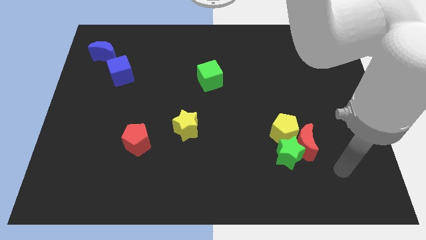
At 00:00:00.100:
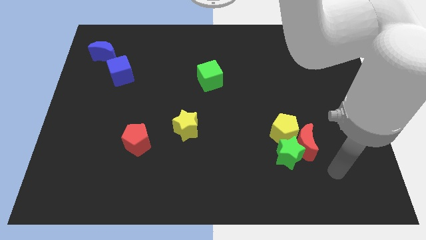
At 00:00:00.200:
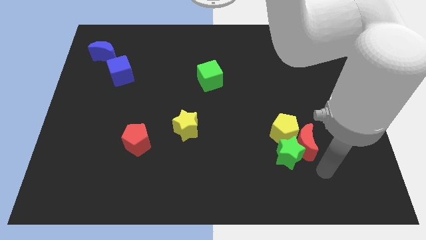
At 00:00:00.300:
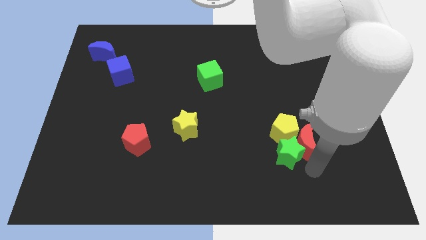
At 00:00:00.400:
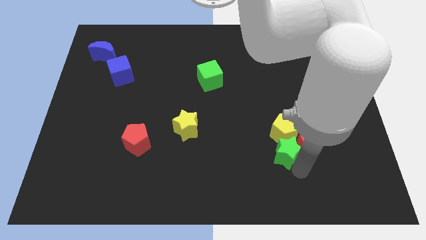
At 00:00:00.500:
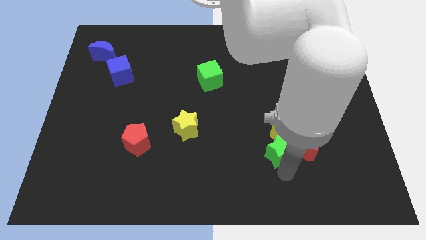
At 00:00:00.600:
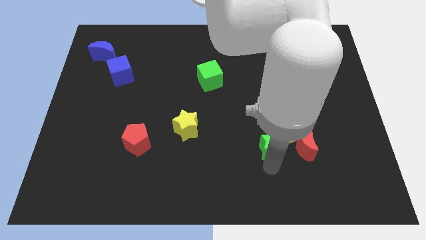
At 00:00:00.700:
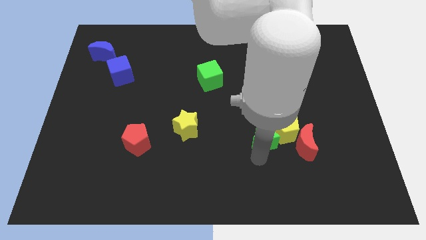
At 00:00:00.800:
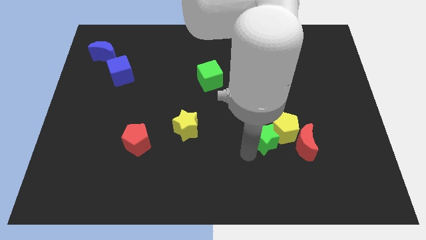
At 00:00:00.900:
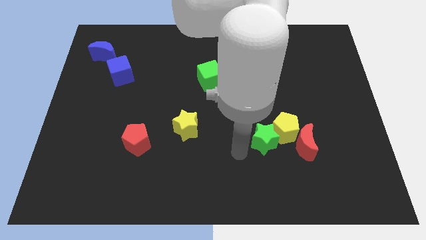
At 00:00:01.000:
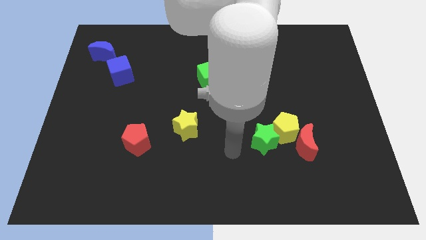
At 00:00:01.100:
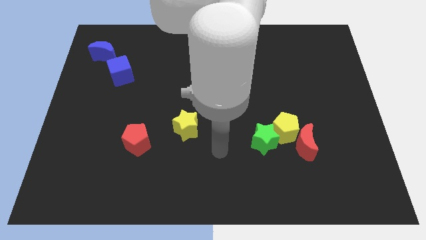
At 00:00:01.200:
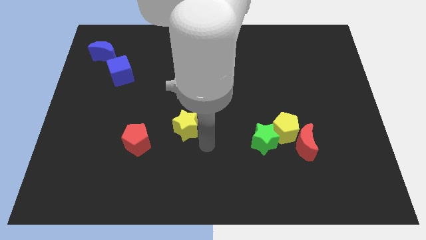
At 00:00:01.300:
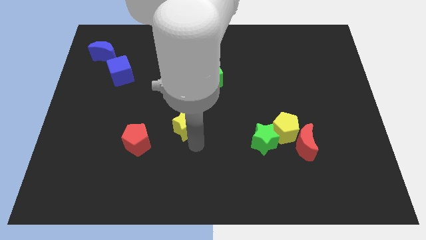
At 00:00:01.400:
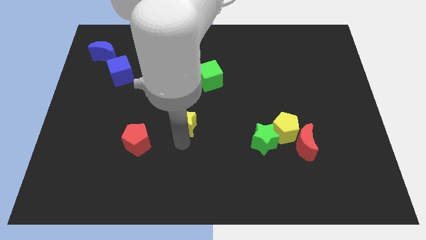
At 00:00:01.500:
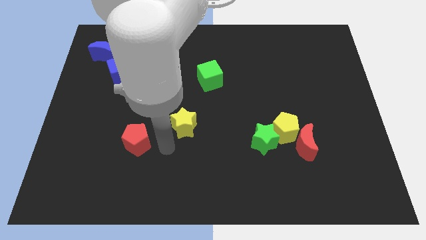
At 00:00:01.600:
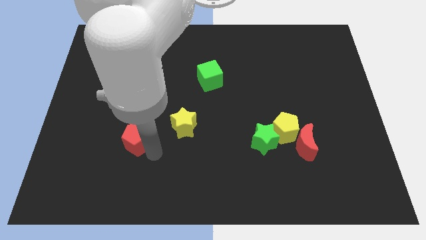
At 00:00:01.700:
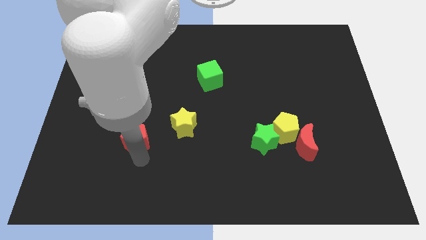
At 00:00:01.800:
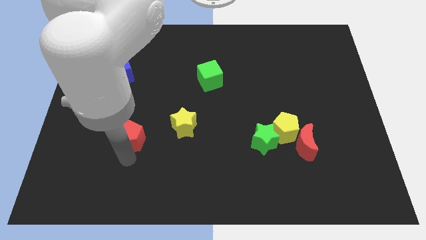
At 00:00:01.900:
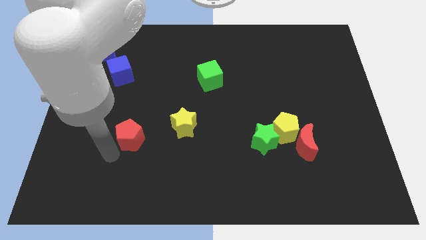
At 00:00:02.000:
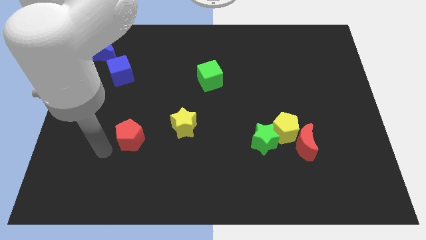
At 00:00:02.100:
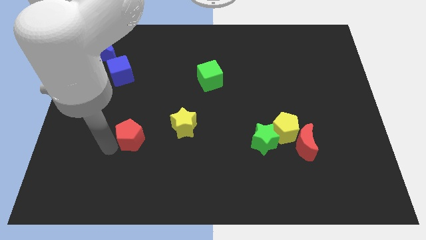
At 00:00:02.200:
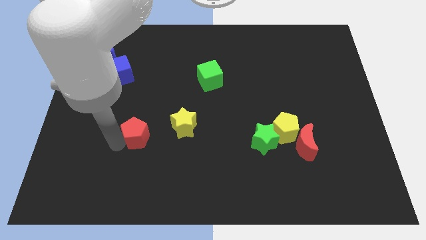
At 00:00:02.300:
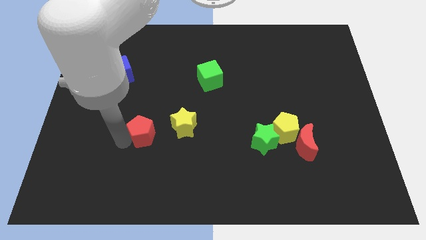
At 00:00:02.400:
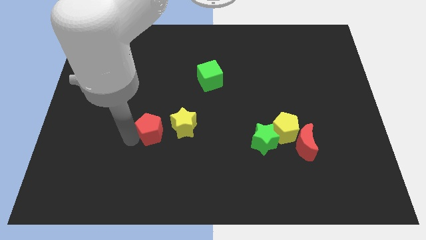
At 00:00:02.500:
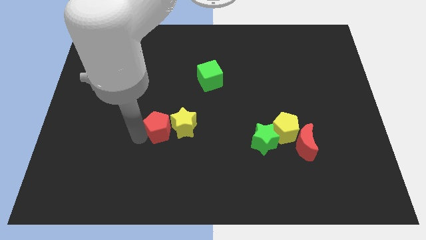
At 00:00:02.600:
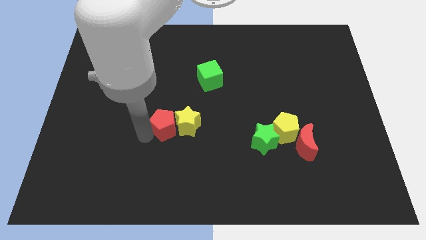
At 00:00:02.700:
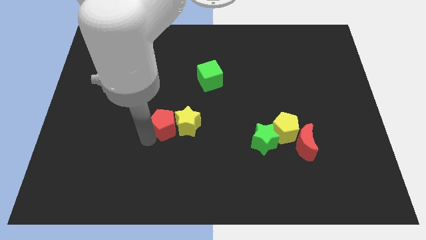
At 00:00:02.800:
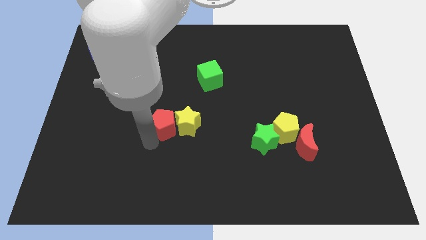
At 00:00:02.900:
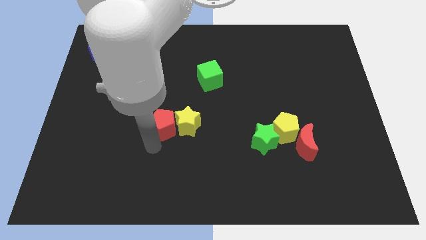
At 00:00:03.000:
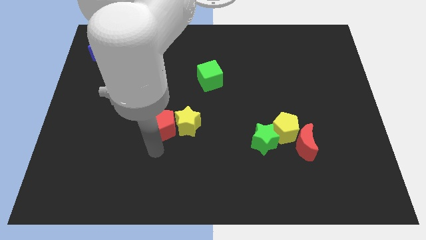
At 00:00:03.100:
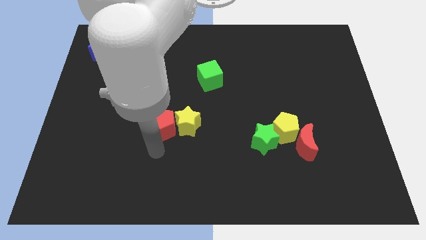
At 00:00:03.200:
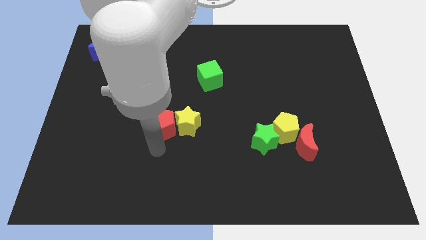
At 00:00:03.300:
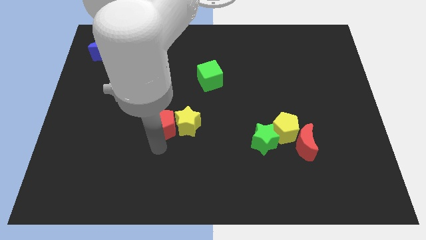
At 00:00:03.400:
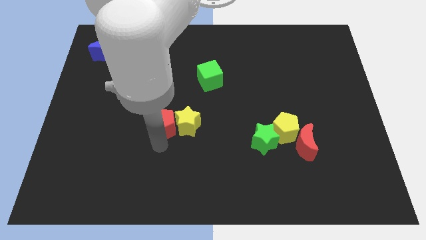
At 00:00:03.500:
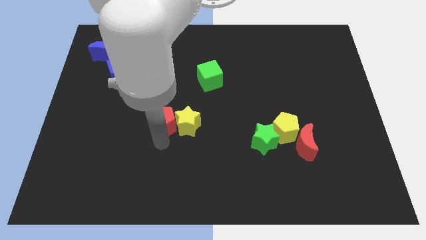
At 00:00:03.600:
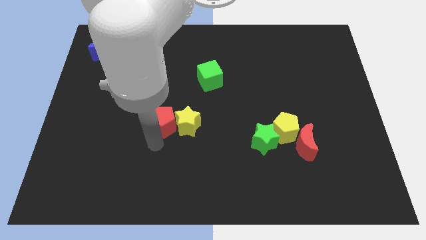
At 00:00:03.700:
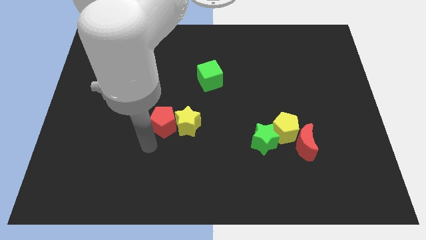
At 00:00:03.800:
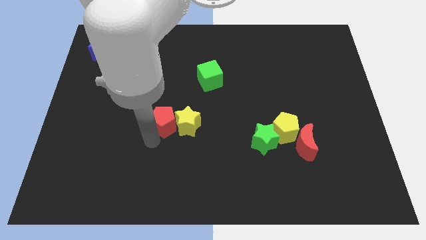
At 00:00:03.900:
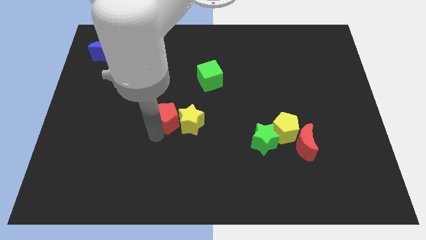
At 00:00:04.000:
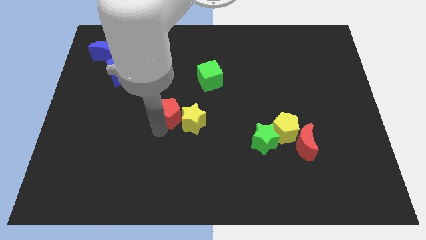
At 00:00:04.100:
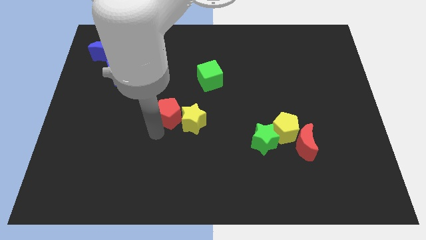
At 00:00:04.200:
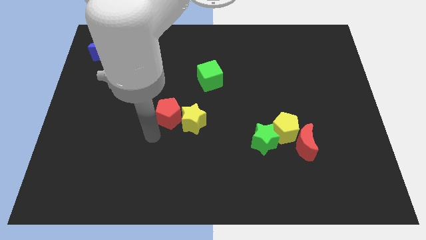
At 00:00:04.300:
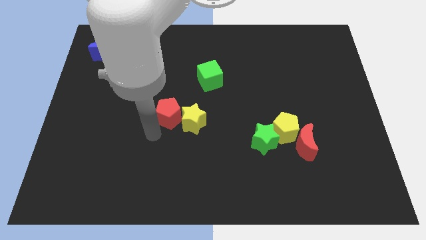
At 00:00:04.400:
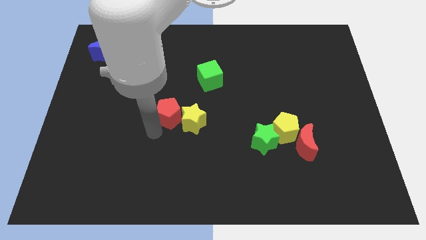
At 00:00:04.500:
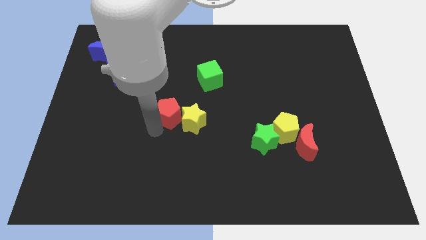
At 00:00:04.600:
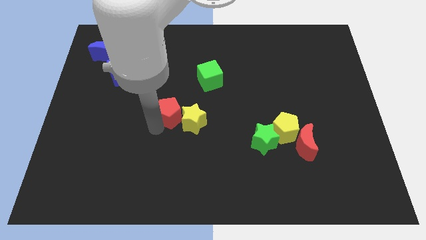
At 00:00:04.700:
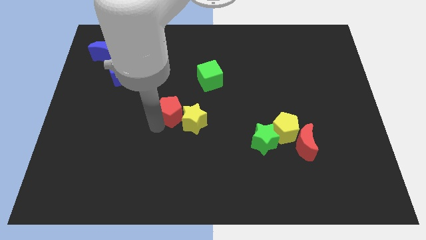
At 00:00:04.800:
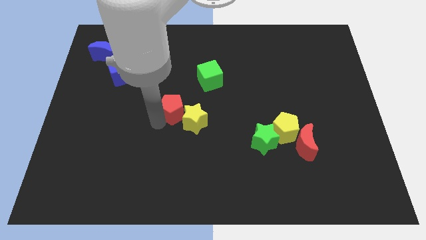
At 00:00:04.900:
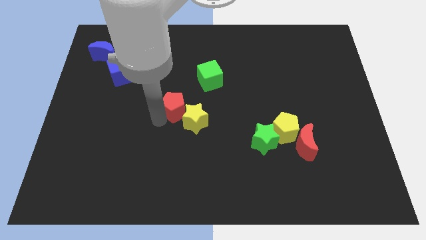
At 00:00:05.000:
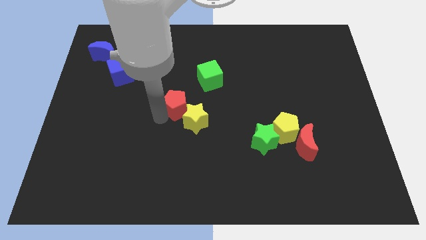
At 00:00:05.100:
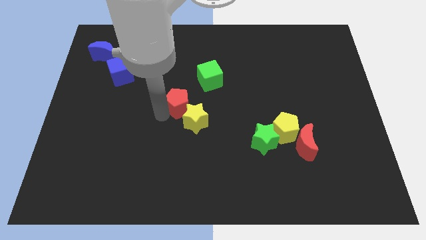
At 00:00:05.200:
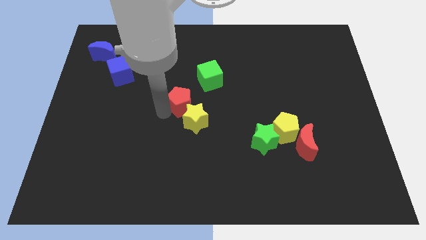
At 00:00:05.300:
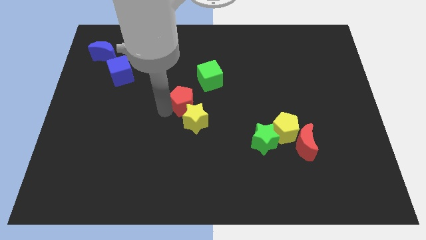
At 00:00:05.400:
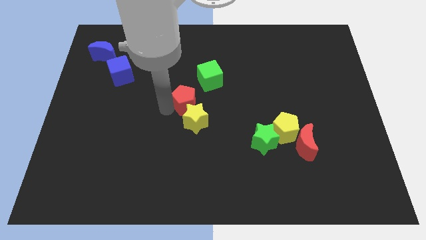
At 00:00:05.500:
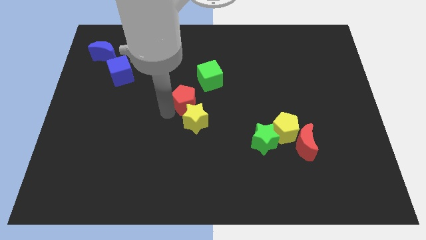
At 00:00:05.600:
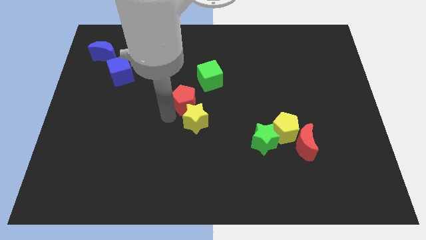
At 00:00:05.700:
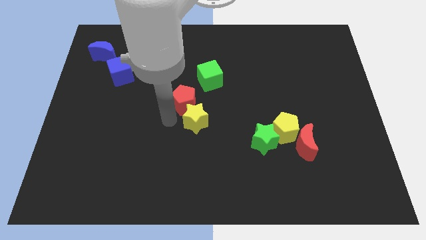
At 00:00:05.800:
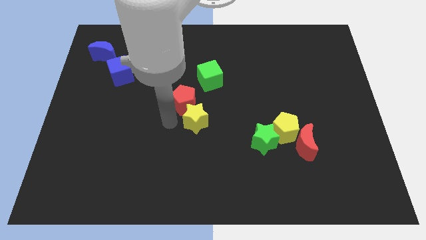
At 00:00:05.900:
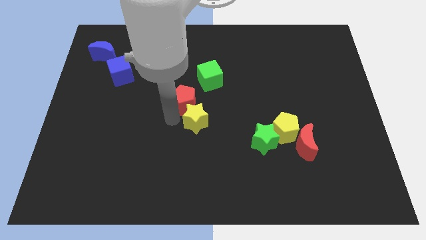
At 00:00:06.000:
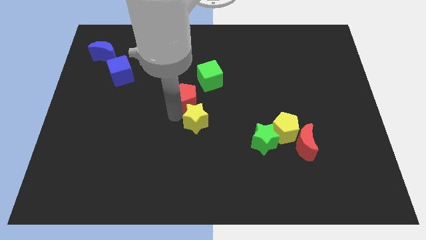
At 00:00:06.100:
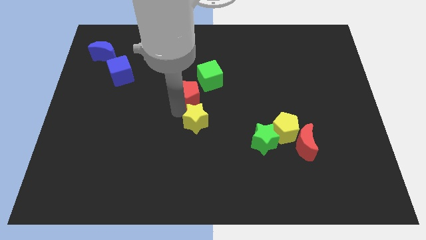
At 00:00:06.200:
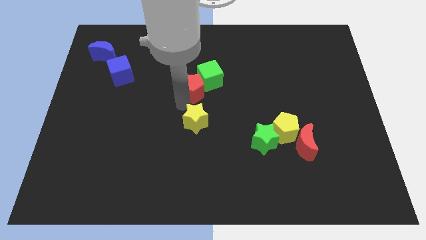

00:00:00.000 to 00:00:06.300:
move the red pentagon towards the green cube

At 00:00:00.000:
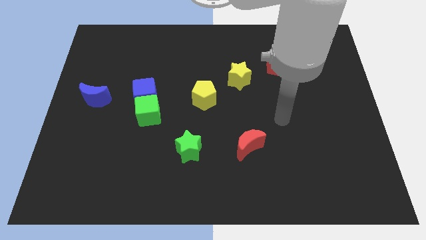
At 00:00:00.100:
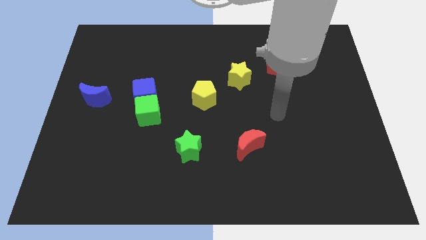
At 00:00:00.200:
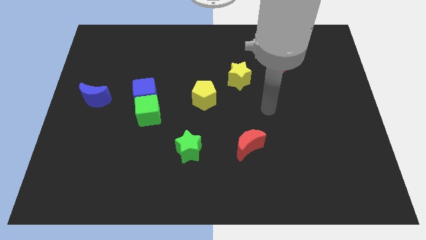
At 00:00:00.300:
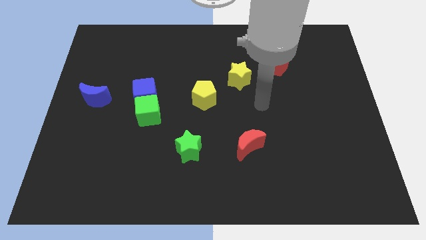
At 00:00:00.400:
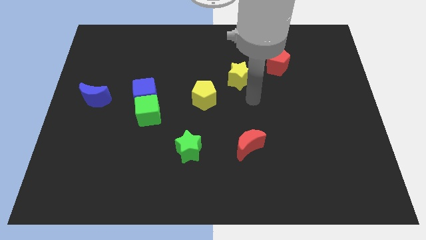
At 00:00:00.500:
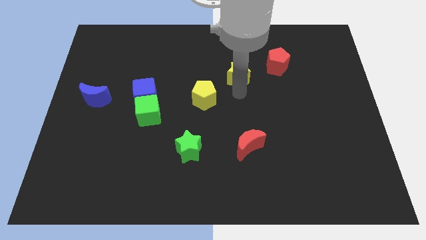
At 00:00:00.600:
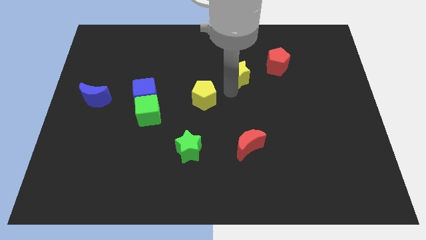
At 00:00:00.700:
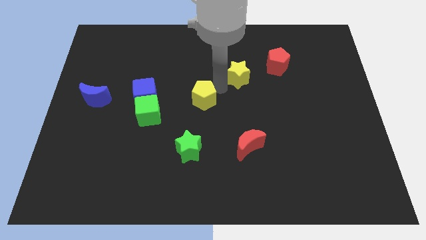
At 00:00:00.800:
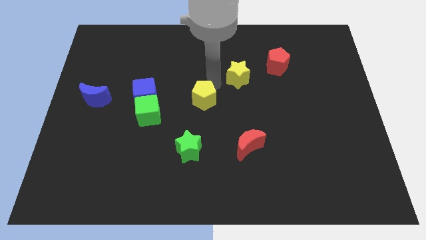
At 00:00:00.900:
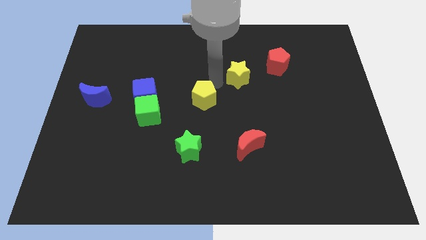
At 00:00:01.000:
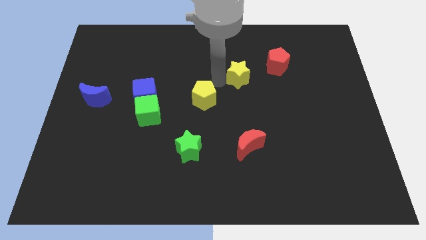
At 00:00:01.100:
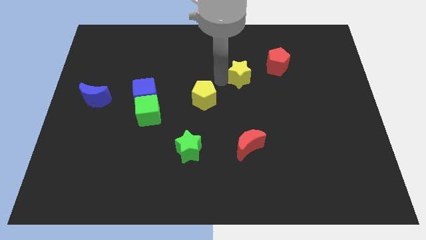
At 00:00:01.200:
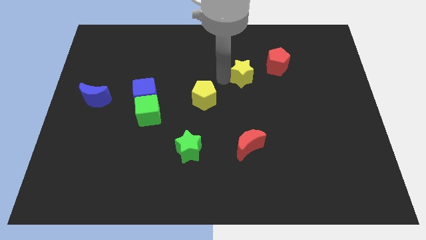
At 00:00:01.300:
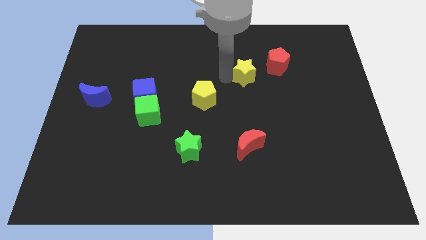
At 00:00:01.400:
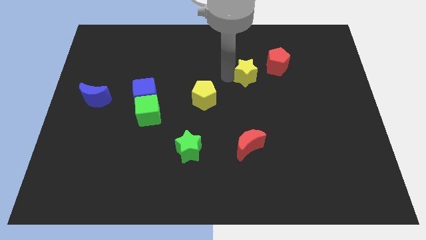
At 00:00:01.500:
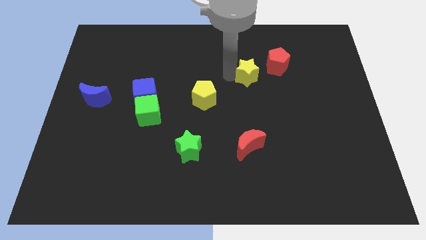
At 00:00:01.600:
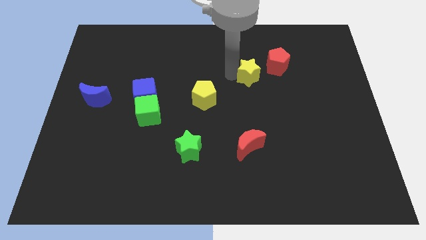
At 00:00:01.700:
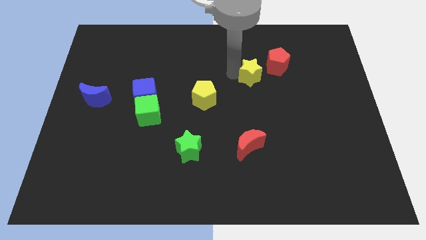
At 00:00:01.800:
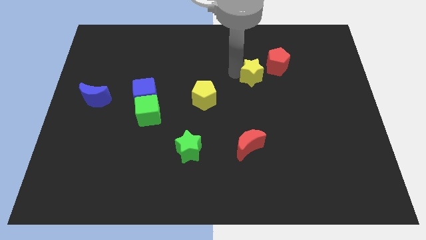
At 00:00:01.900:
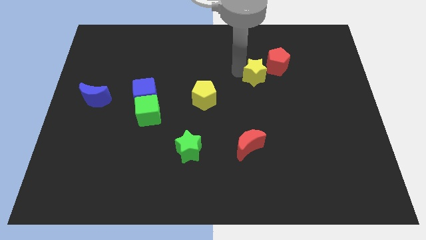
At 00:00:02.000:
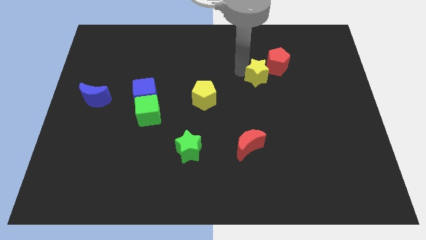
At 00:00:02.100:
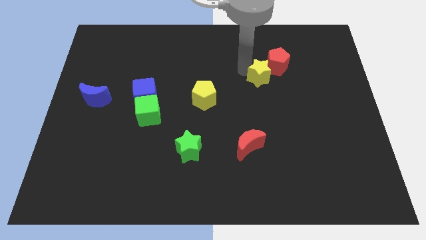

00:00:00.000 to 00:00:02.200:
push the yellow star to the red pentagon
